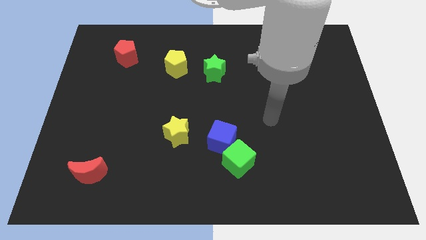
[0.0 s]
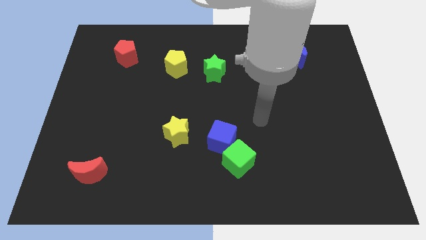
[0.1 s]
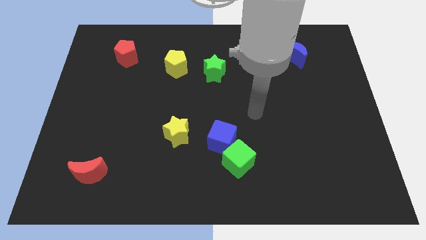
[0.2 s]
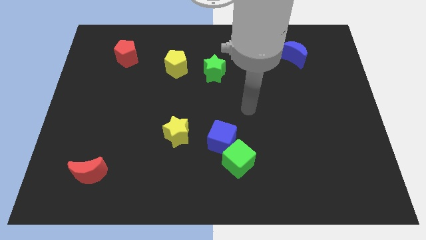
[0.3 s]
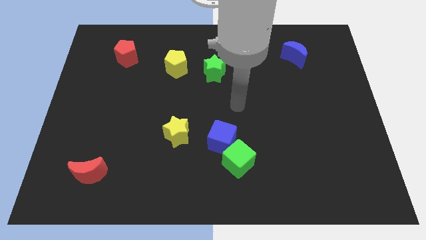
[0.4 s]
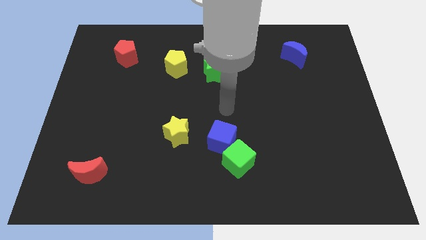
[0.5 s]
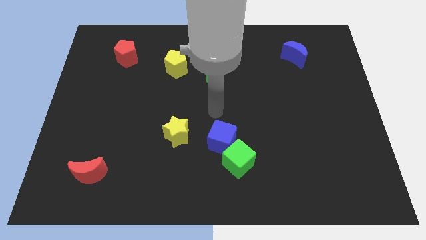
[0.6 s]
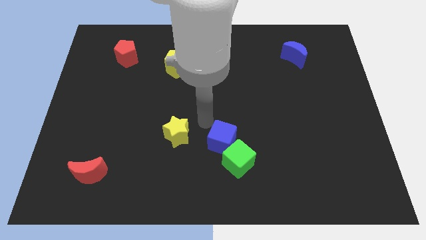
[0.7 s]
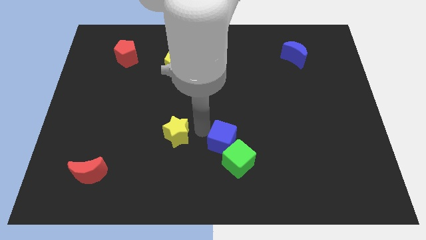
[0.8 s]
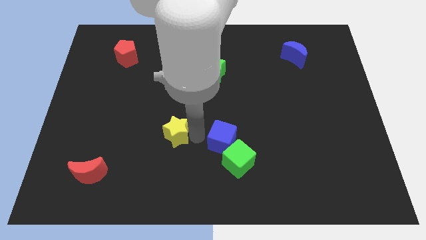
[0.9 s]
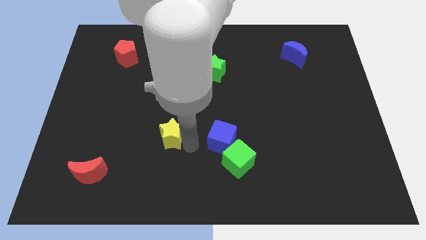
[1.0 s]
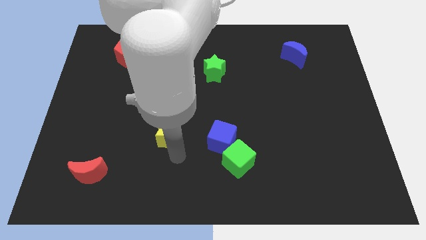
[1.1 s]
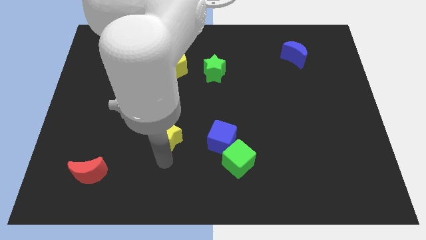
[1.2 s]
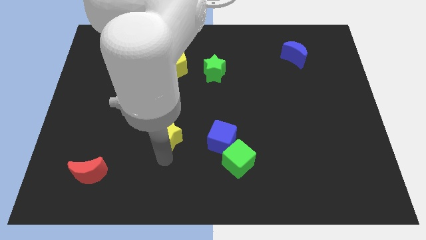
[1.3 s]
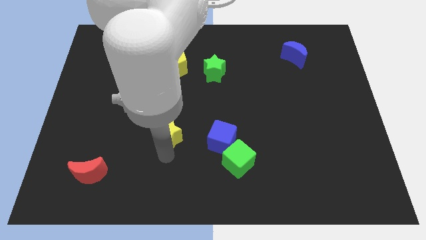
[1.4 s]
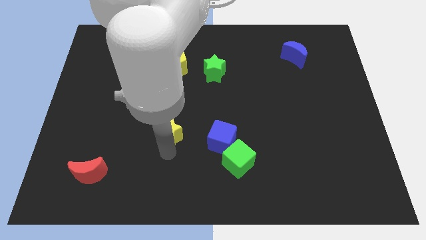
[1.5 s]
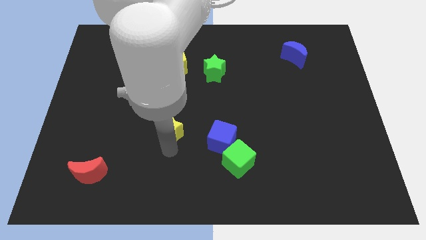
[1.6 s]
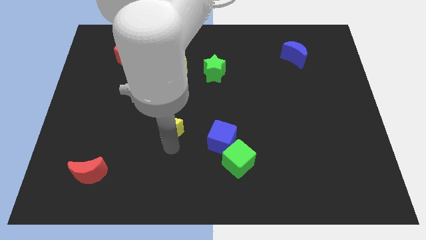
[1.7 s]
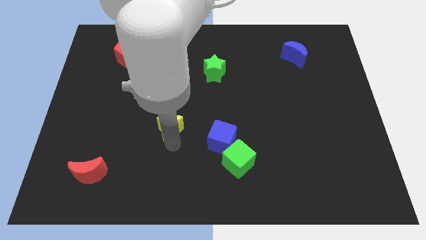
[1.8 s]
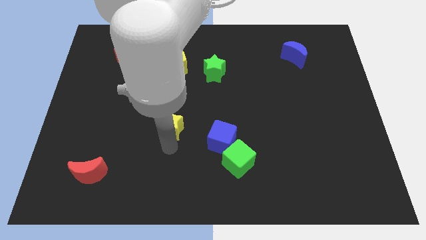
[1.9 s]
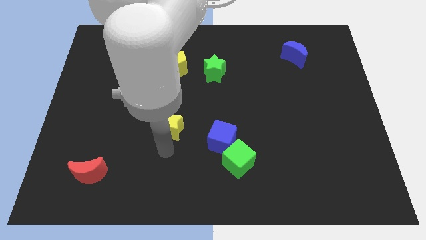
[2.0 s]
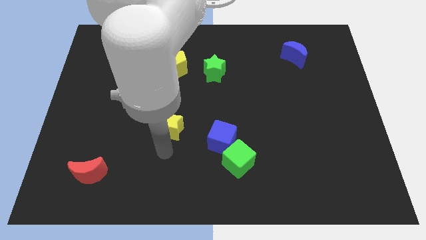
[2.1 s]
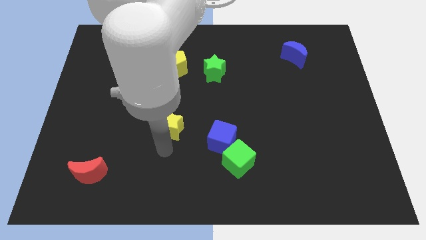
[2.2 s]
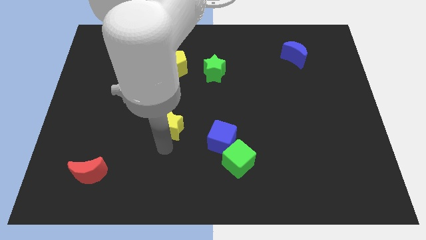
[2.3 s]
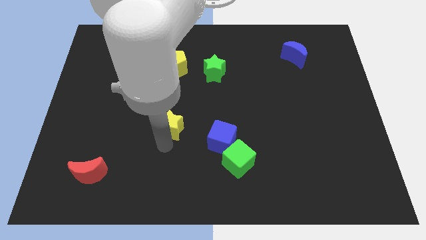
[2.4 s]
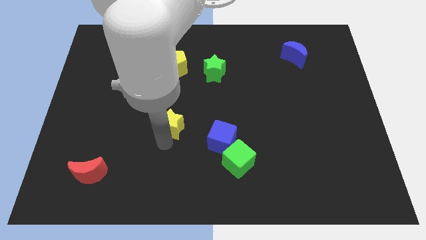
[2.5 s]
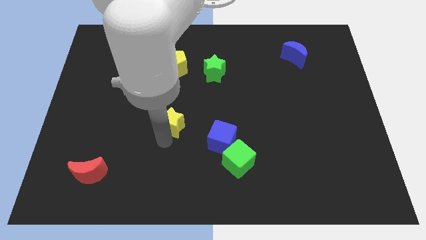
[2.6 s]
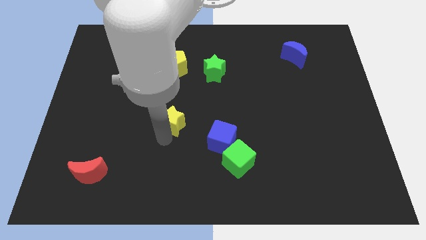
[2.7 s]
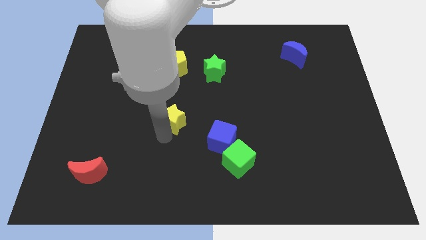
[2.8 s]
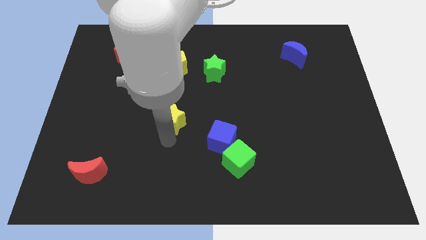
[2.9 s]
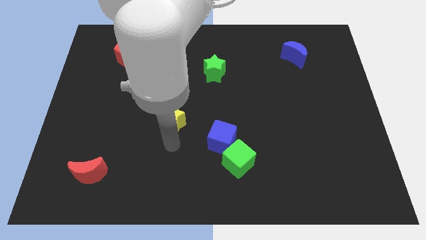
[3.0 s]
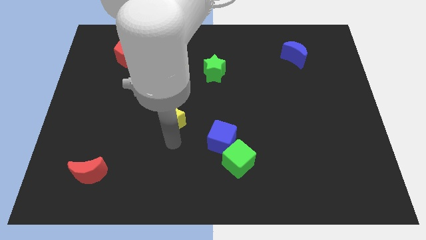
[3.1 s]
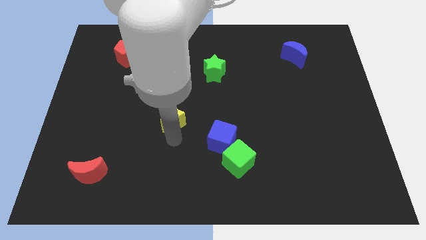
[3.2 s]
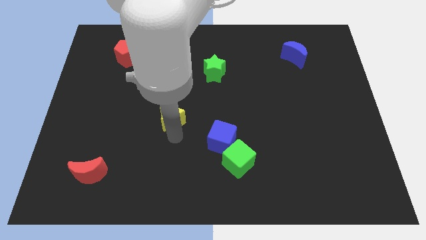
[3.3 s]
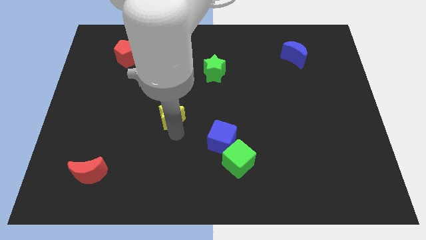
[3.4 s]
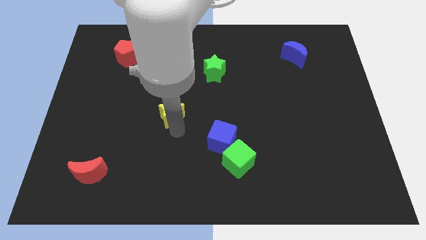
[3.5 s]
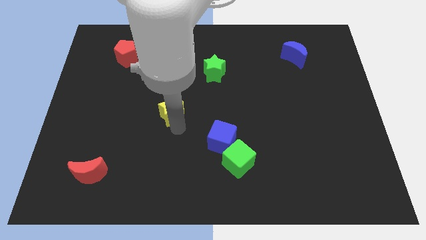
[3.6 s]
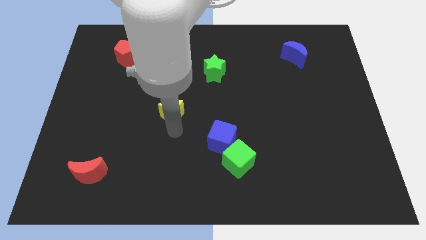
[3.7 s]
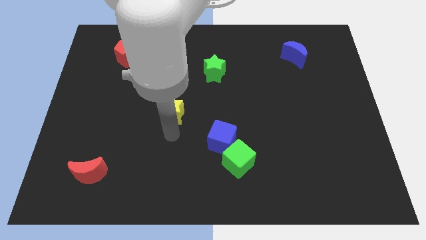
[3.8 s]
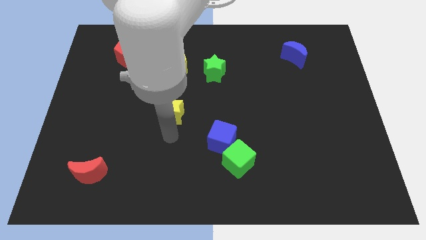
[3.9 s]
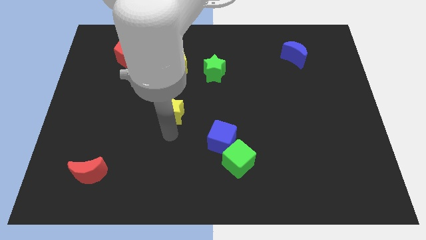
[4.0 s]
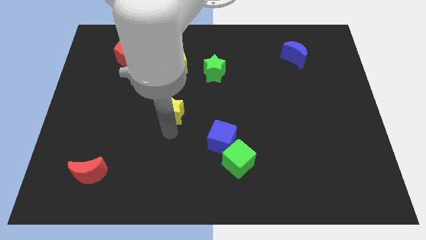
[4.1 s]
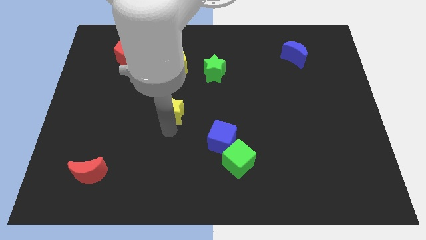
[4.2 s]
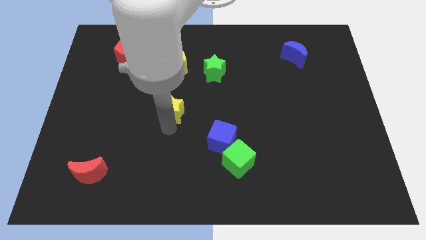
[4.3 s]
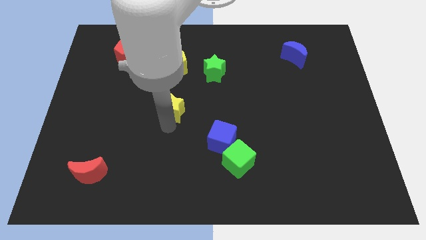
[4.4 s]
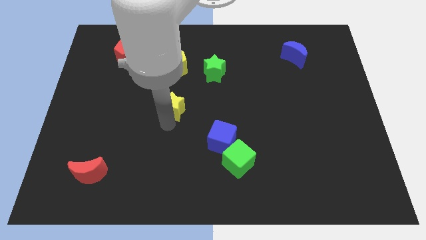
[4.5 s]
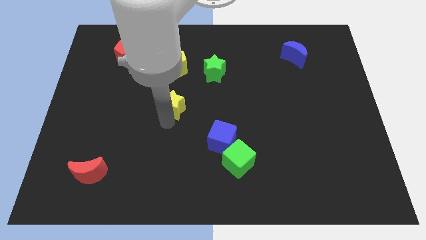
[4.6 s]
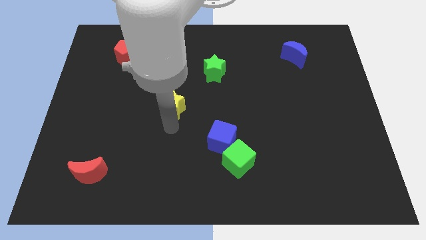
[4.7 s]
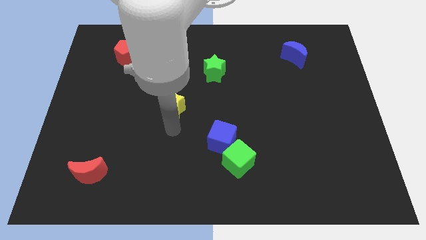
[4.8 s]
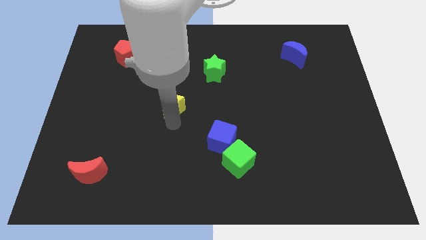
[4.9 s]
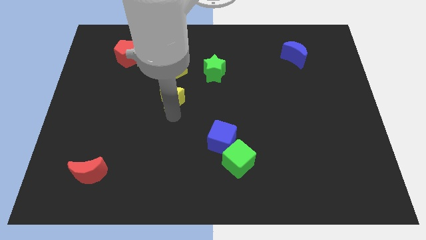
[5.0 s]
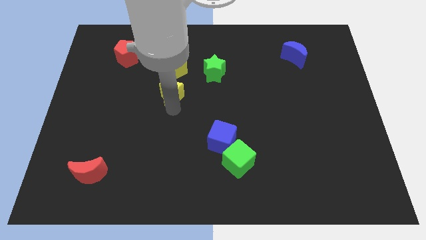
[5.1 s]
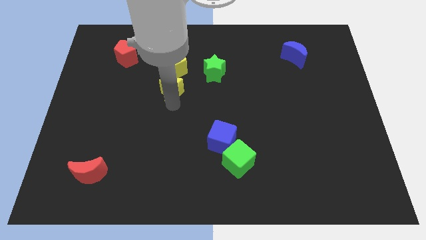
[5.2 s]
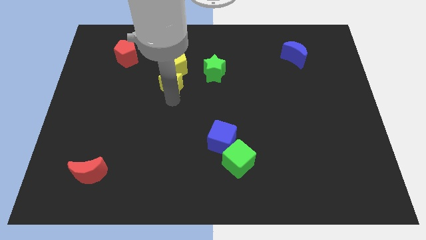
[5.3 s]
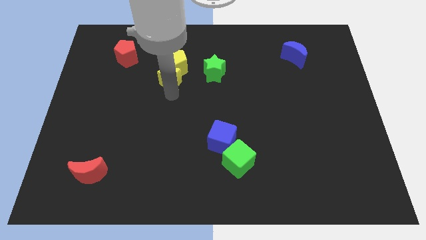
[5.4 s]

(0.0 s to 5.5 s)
push the yellow star next to the yellow pentagon

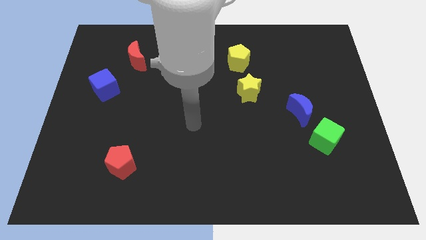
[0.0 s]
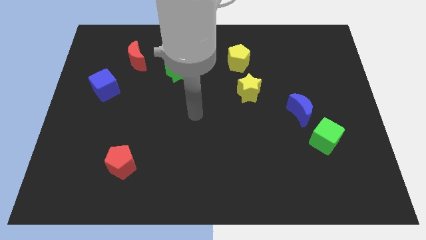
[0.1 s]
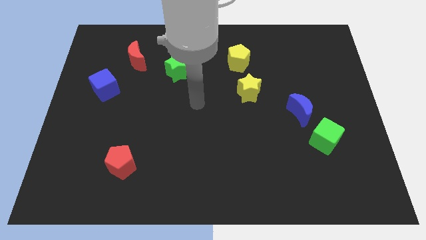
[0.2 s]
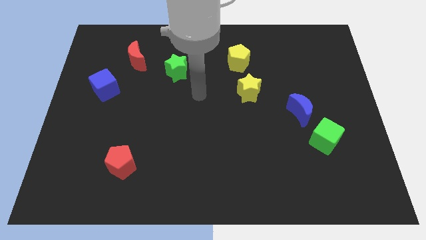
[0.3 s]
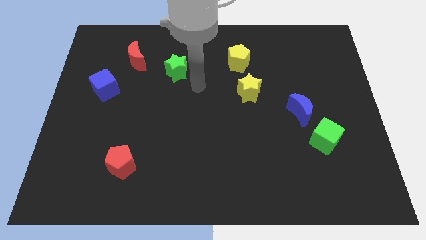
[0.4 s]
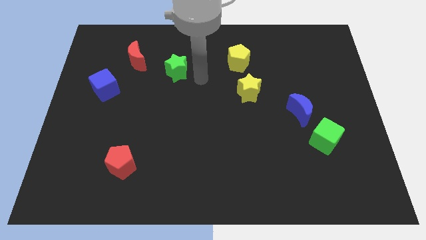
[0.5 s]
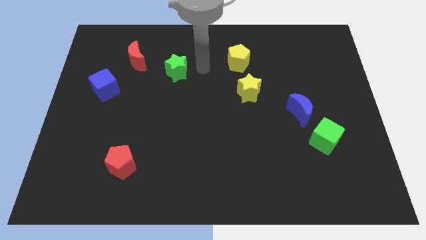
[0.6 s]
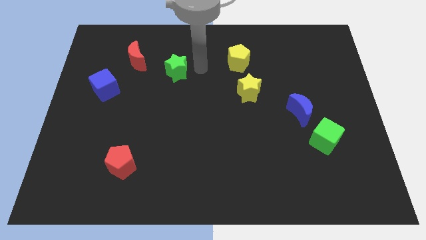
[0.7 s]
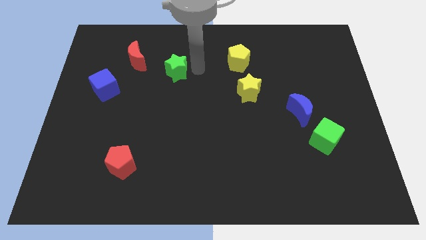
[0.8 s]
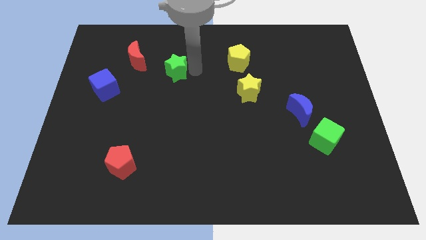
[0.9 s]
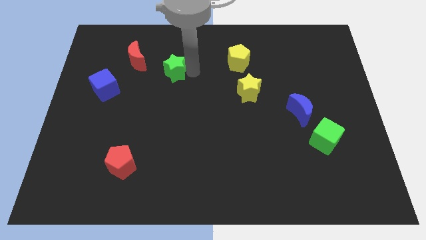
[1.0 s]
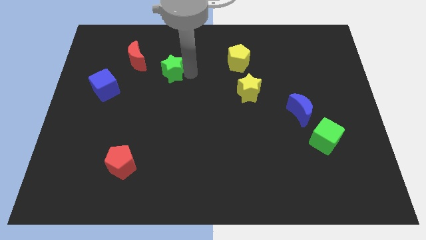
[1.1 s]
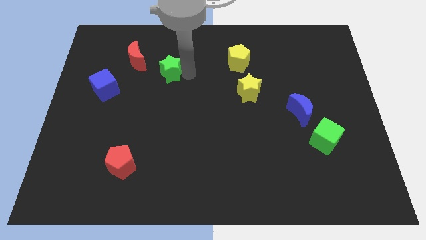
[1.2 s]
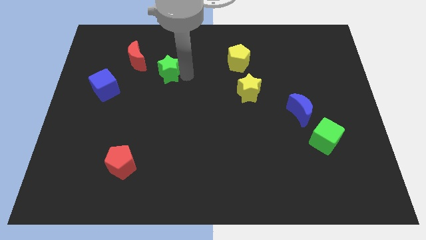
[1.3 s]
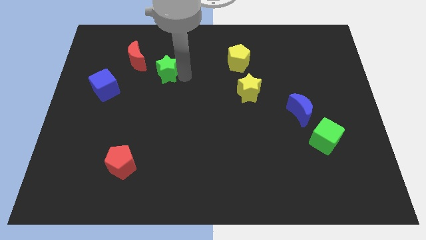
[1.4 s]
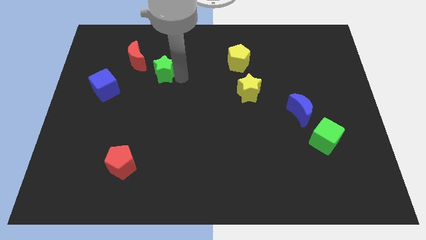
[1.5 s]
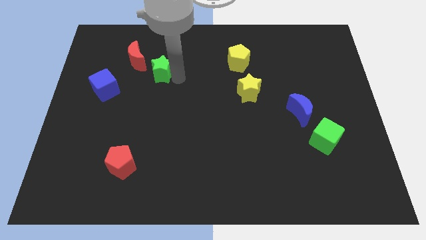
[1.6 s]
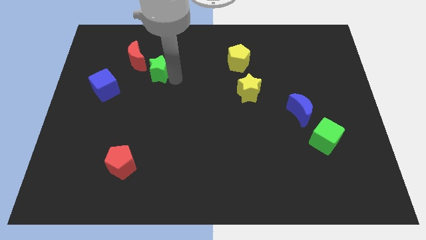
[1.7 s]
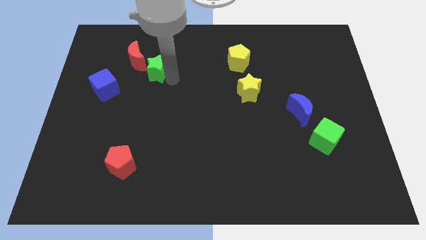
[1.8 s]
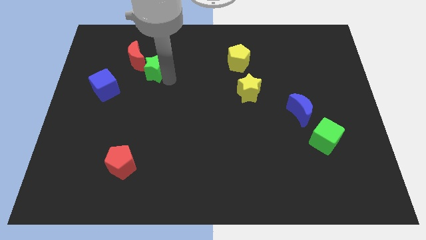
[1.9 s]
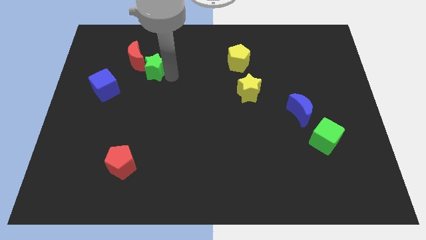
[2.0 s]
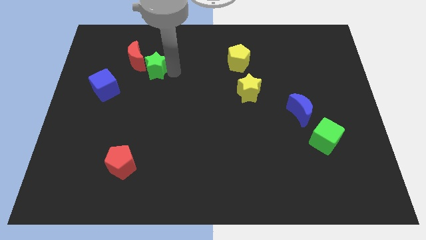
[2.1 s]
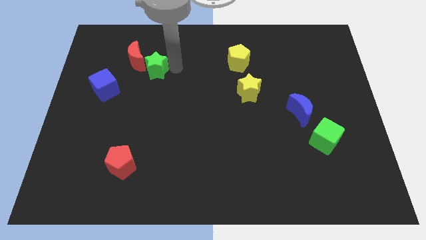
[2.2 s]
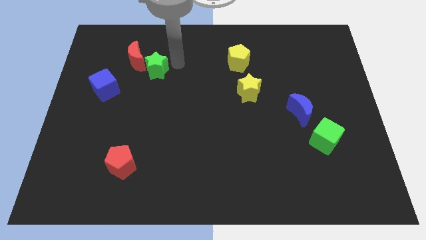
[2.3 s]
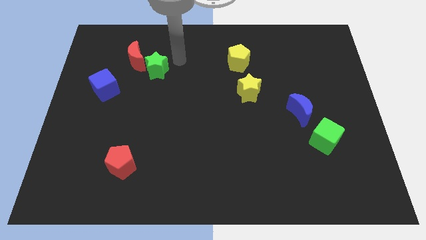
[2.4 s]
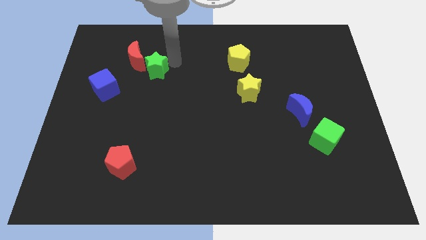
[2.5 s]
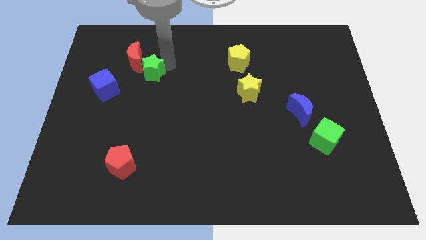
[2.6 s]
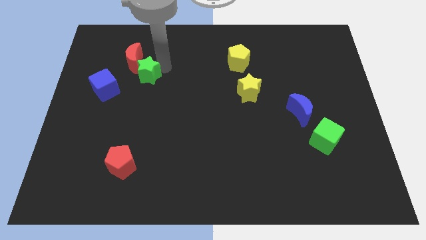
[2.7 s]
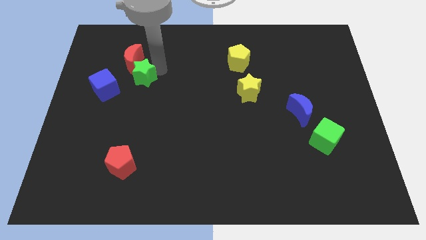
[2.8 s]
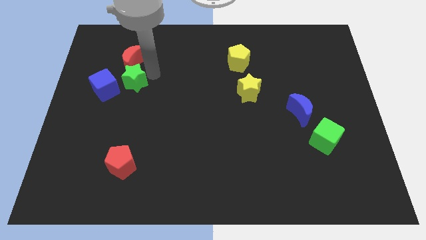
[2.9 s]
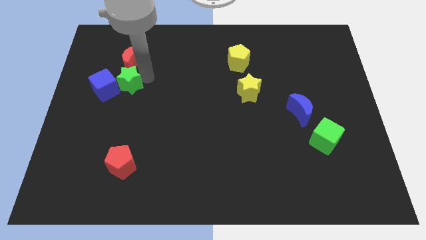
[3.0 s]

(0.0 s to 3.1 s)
push the green star towards the blue cube
